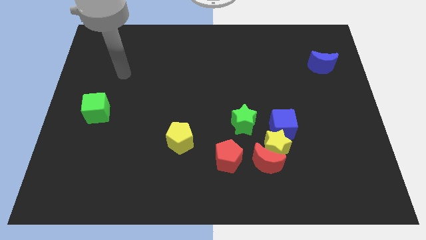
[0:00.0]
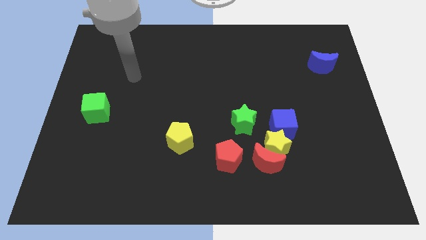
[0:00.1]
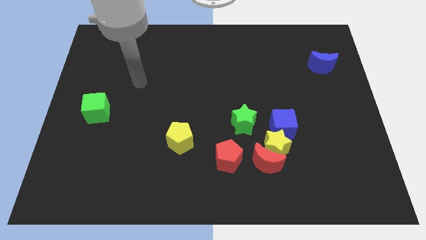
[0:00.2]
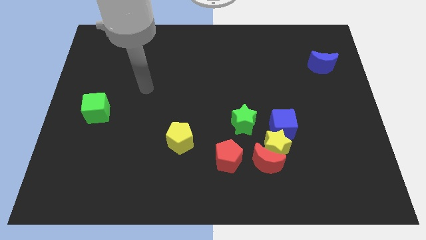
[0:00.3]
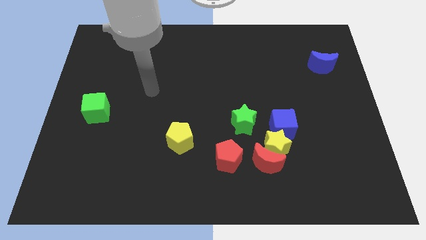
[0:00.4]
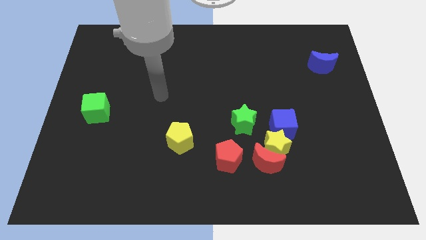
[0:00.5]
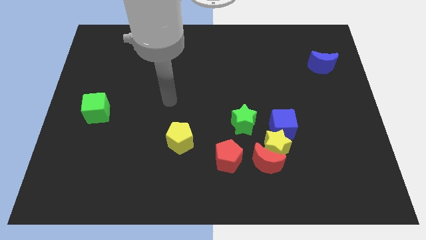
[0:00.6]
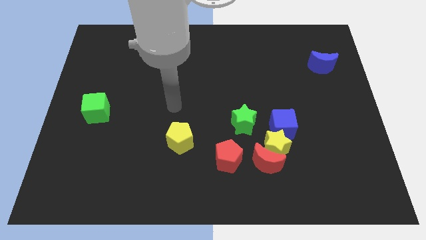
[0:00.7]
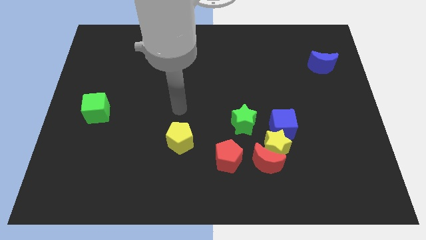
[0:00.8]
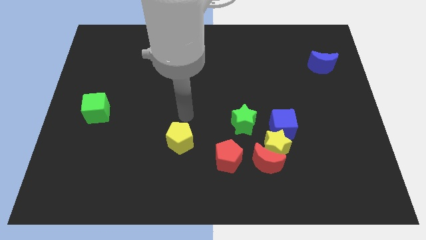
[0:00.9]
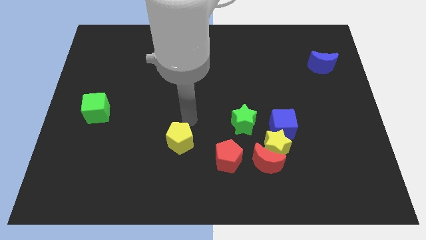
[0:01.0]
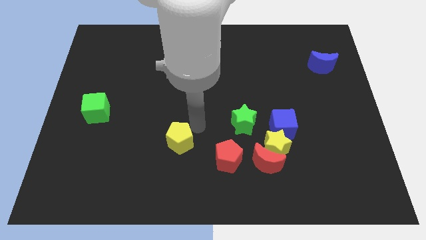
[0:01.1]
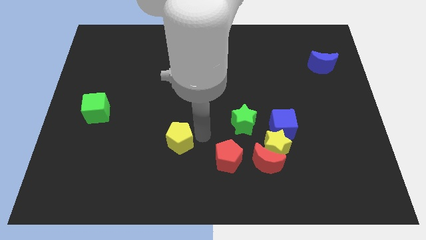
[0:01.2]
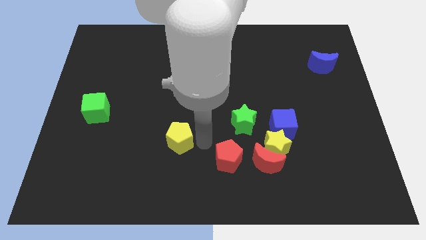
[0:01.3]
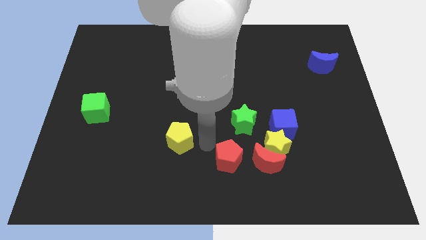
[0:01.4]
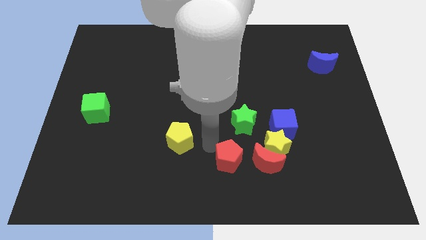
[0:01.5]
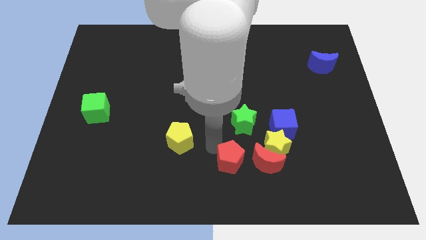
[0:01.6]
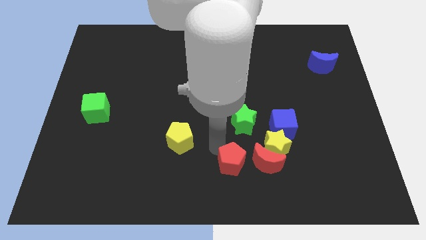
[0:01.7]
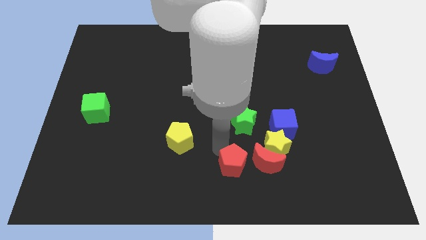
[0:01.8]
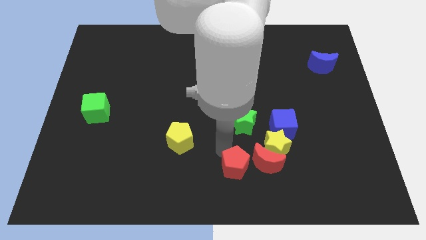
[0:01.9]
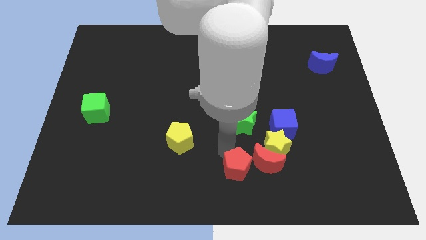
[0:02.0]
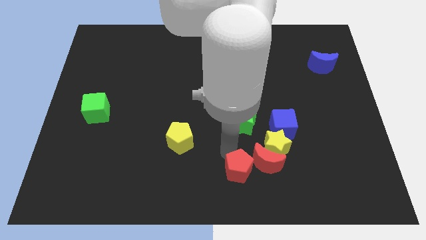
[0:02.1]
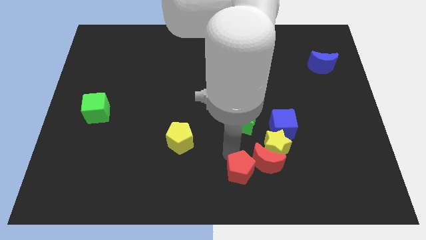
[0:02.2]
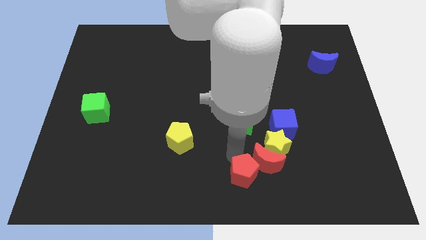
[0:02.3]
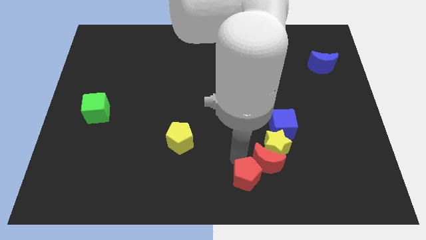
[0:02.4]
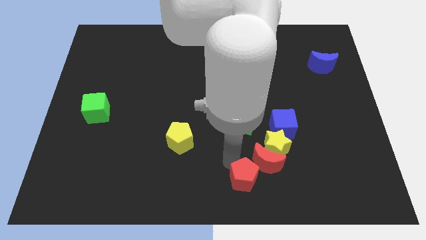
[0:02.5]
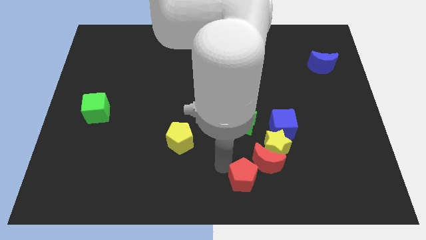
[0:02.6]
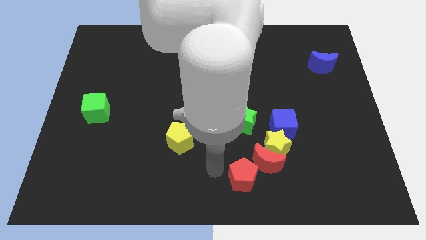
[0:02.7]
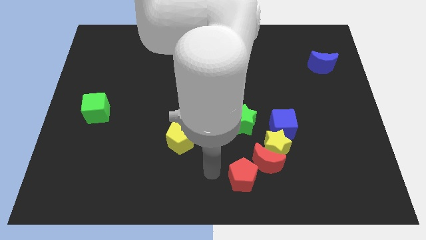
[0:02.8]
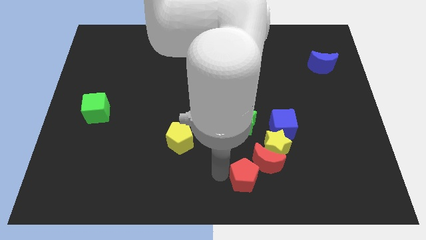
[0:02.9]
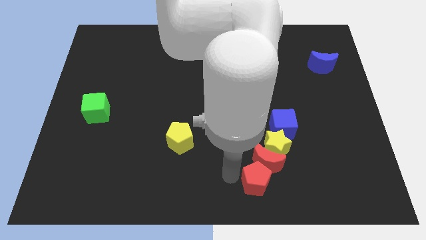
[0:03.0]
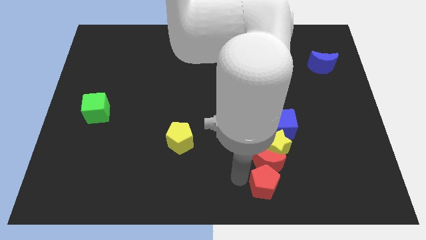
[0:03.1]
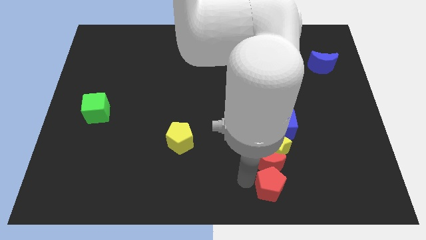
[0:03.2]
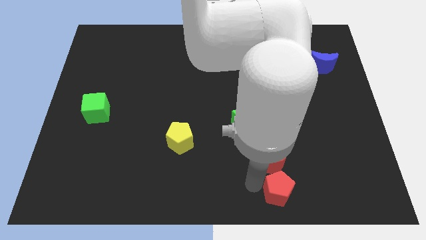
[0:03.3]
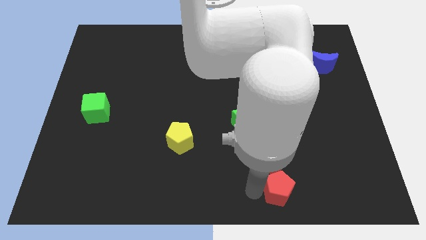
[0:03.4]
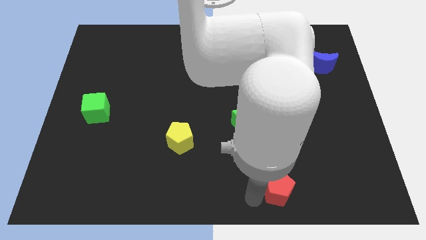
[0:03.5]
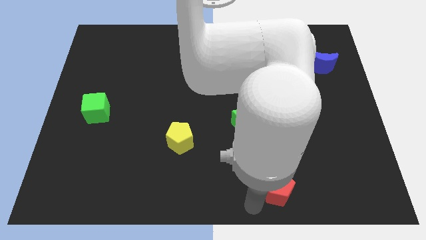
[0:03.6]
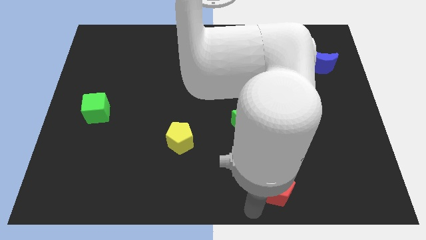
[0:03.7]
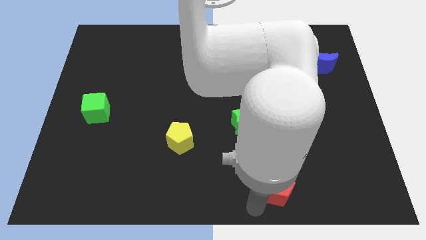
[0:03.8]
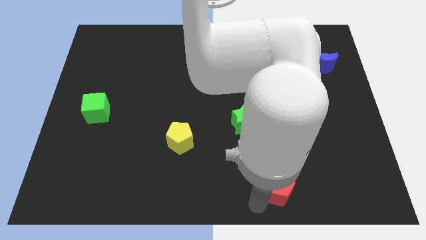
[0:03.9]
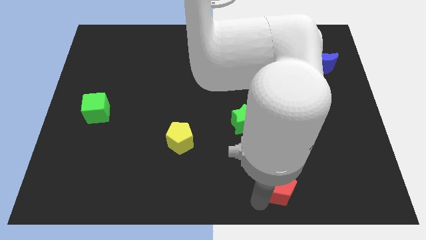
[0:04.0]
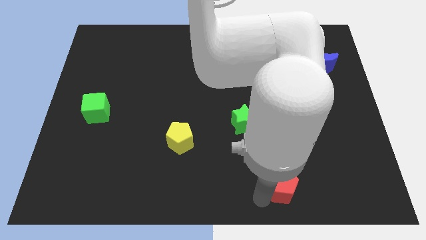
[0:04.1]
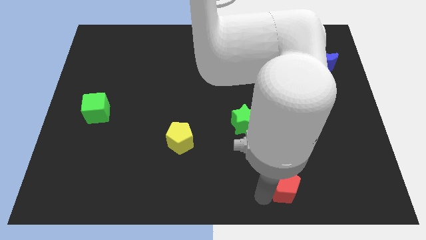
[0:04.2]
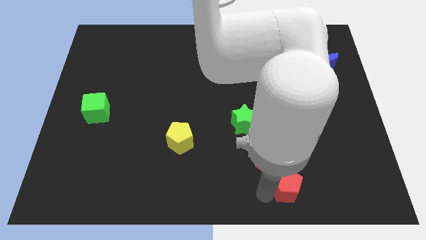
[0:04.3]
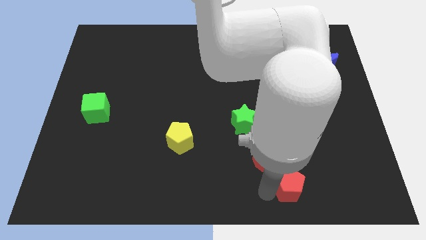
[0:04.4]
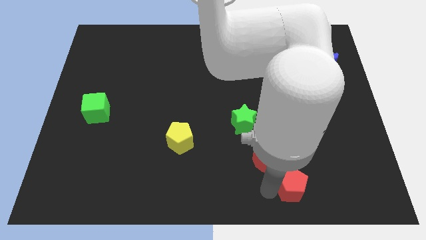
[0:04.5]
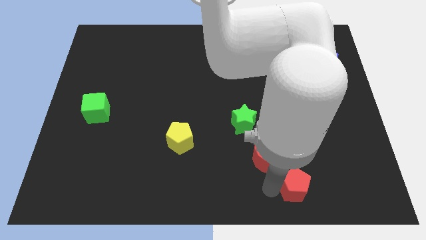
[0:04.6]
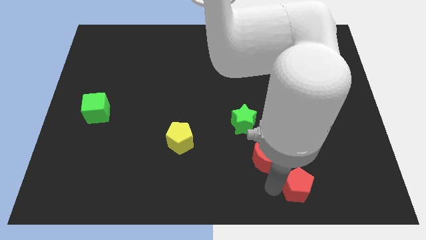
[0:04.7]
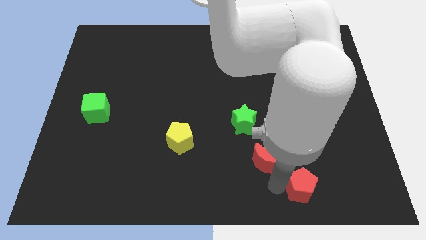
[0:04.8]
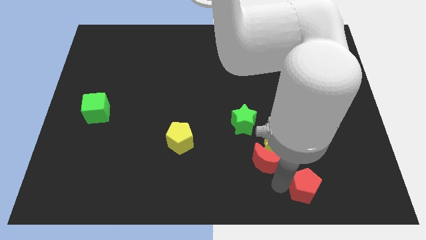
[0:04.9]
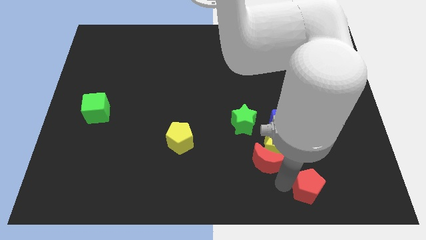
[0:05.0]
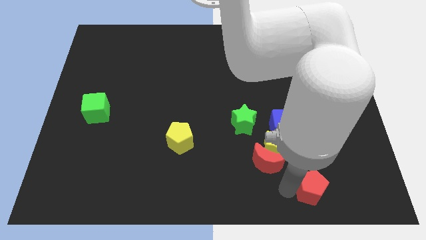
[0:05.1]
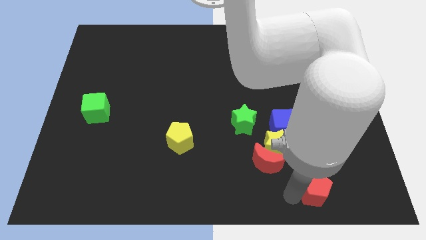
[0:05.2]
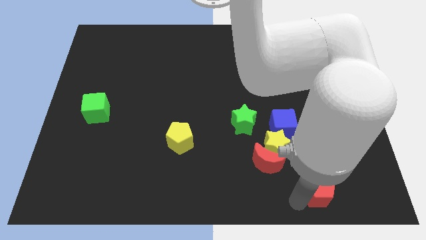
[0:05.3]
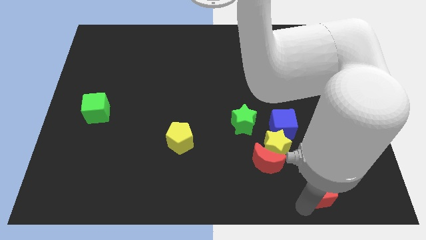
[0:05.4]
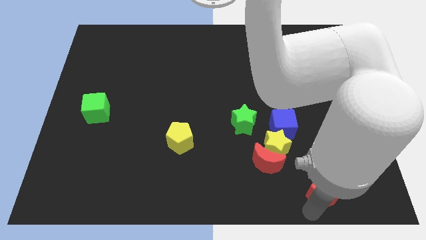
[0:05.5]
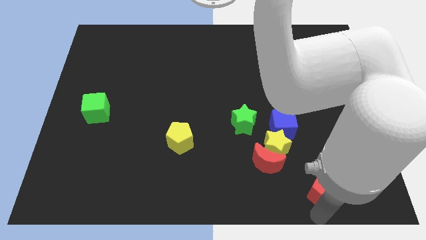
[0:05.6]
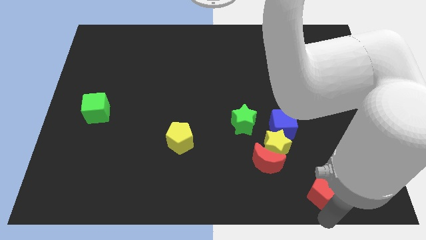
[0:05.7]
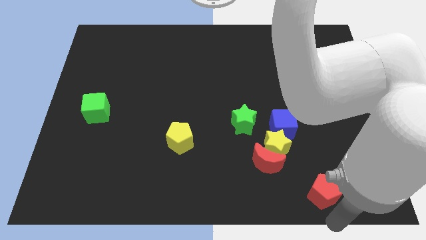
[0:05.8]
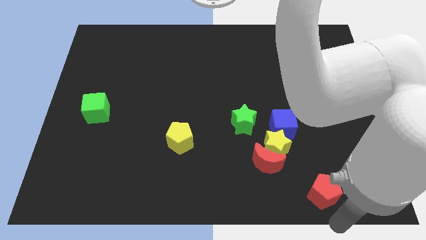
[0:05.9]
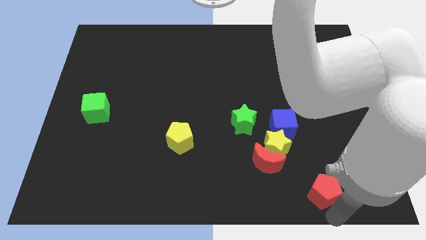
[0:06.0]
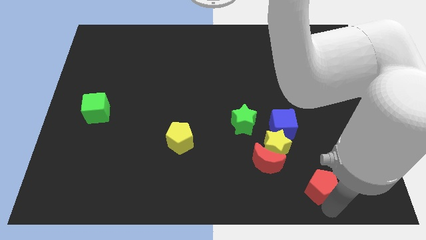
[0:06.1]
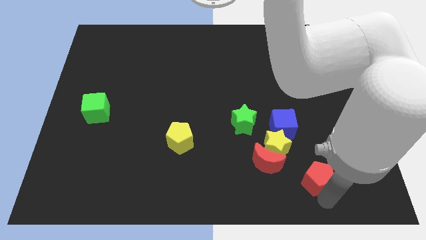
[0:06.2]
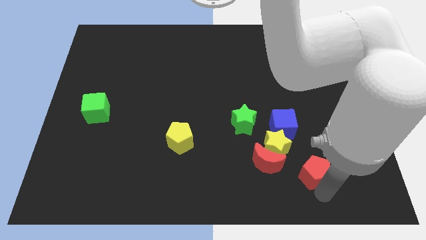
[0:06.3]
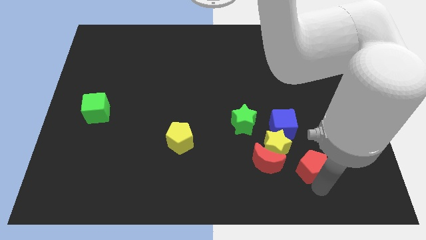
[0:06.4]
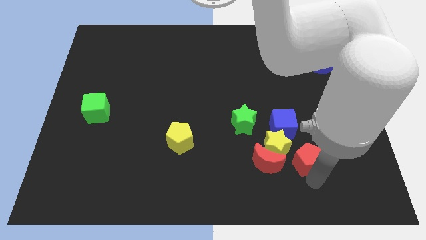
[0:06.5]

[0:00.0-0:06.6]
slide the red pentagon right of the yellow star

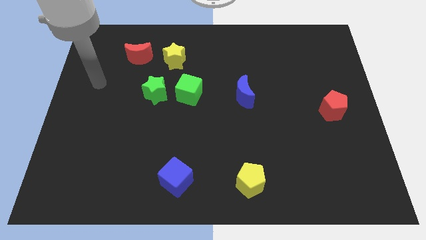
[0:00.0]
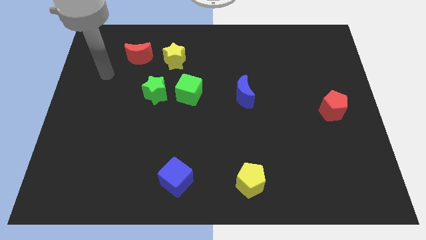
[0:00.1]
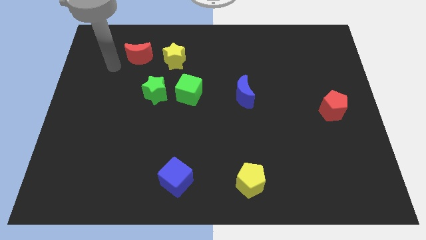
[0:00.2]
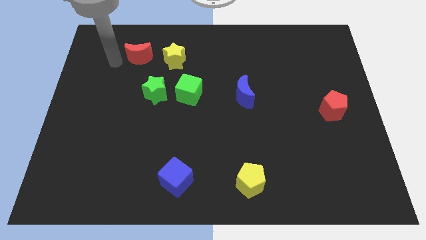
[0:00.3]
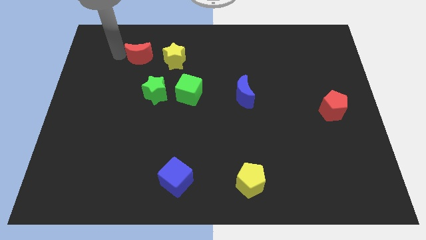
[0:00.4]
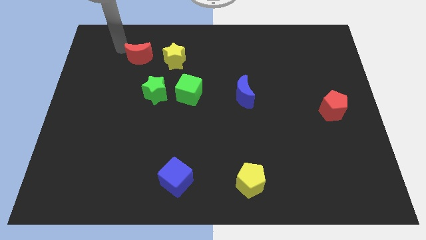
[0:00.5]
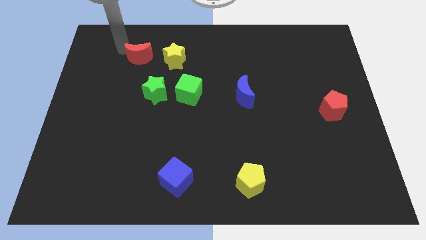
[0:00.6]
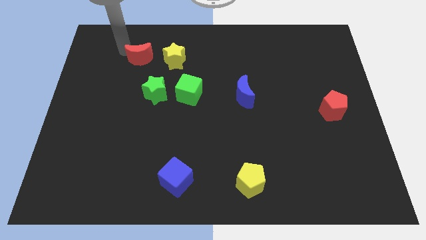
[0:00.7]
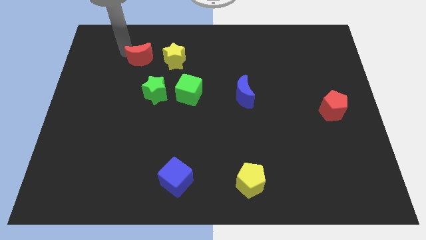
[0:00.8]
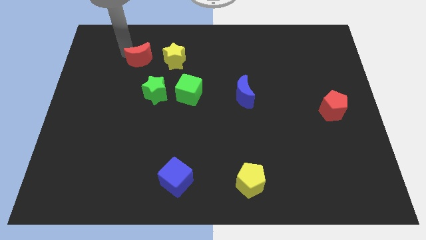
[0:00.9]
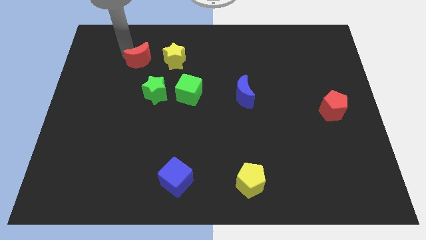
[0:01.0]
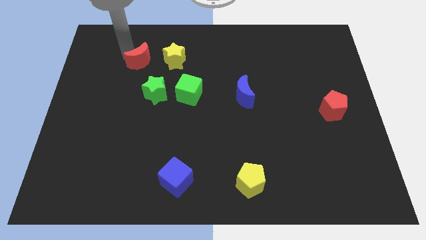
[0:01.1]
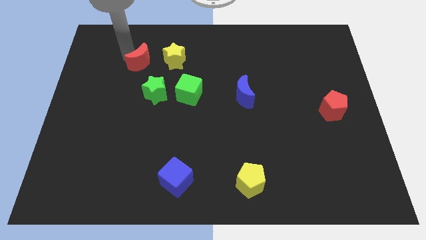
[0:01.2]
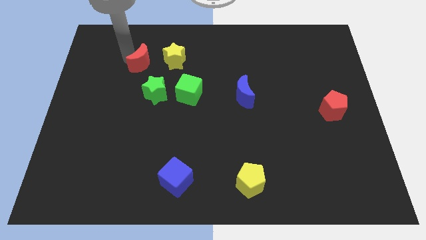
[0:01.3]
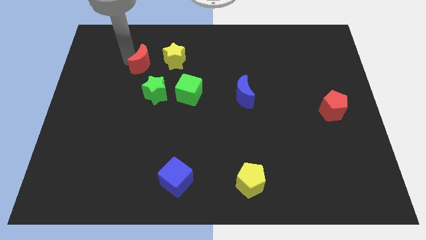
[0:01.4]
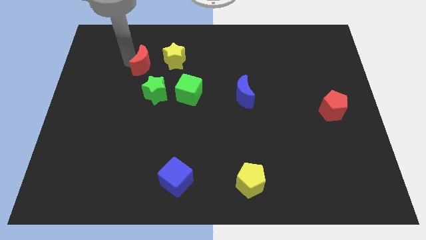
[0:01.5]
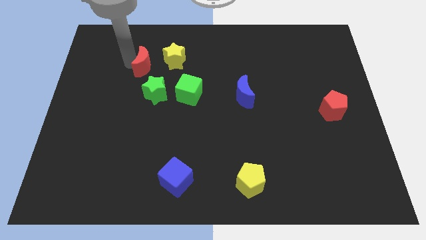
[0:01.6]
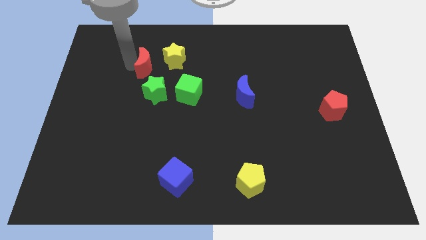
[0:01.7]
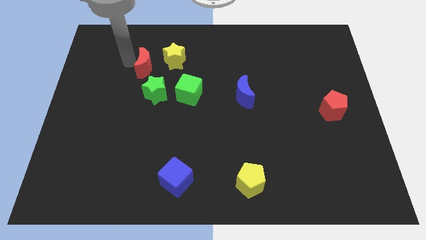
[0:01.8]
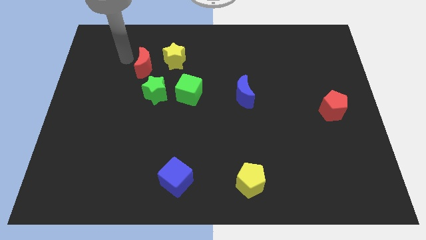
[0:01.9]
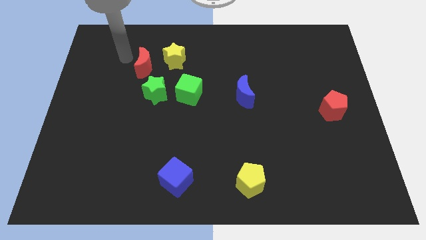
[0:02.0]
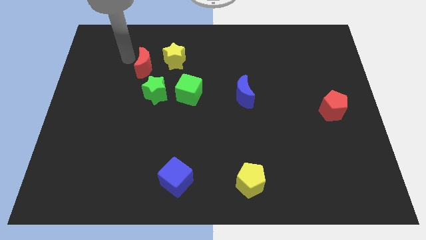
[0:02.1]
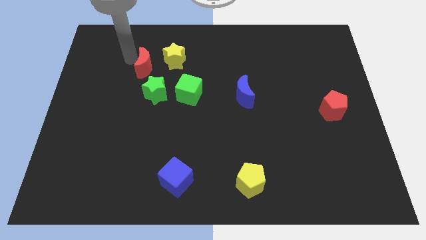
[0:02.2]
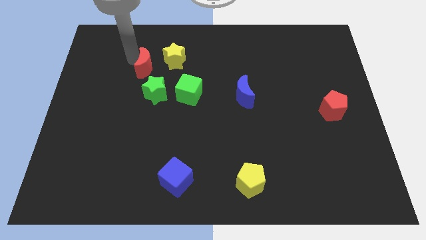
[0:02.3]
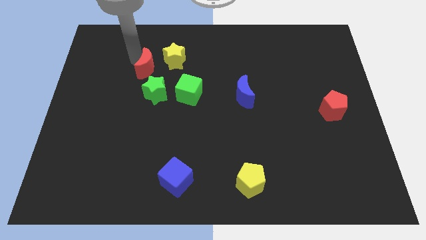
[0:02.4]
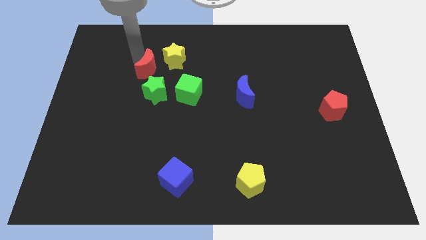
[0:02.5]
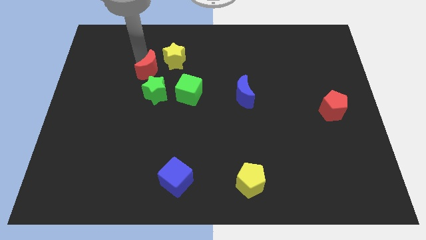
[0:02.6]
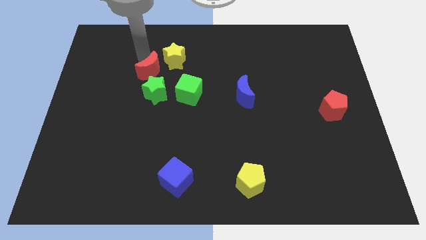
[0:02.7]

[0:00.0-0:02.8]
put the red moon to the top left of the green cube
